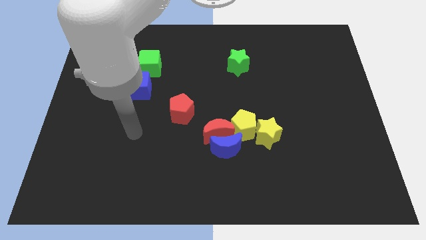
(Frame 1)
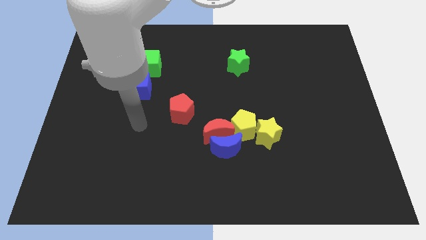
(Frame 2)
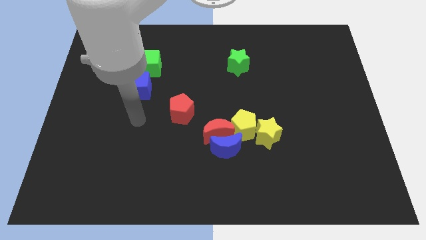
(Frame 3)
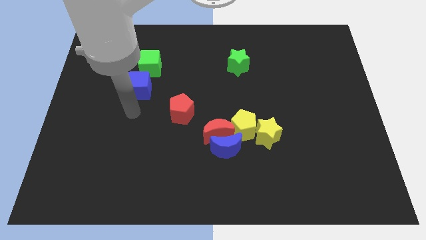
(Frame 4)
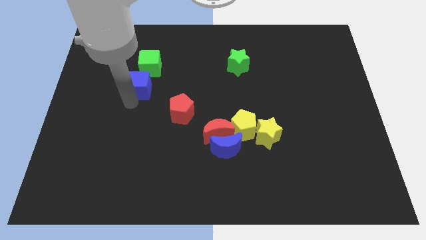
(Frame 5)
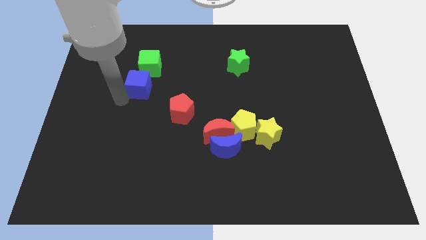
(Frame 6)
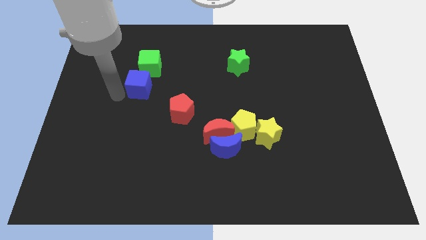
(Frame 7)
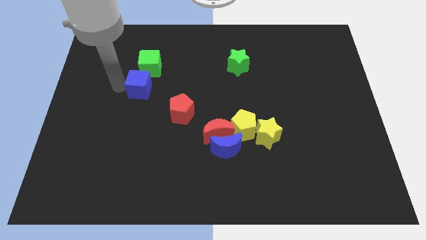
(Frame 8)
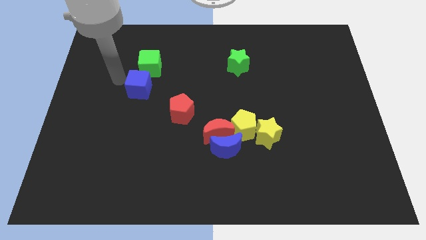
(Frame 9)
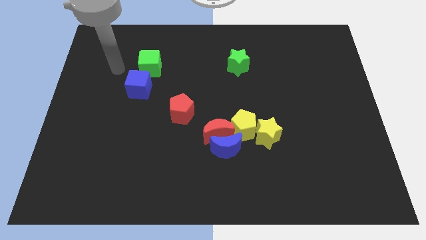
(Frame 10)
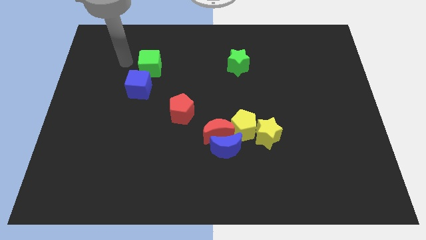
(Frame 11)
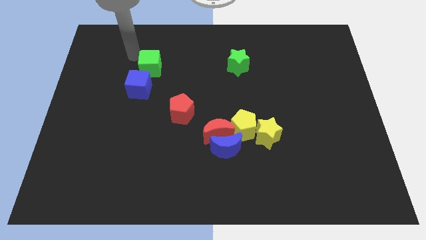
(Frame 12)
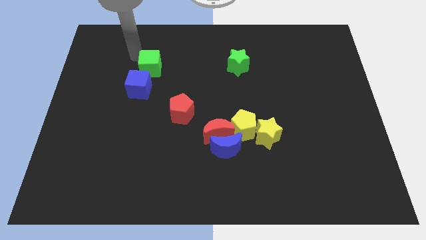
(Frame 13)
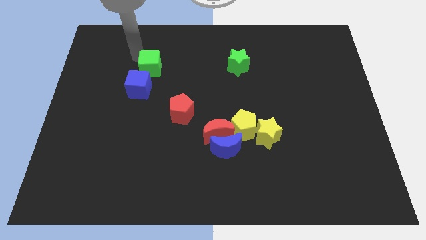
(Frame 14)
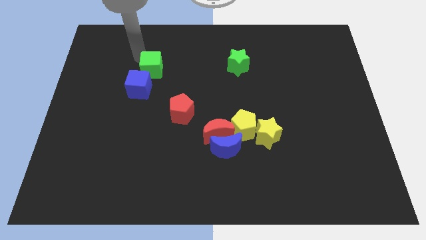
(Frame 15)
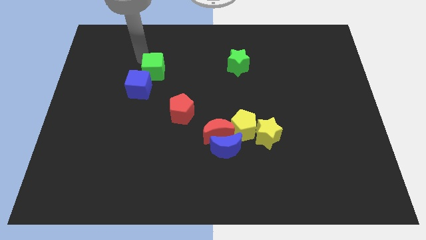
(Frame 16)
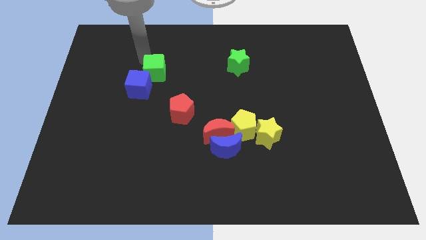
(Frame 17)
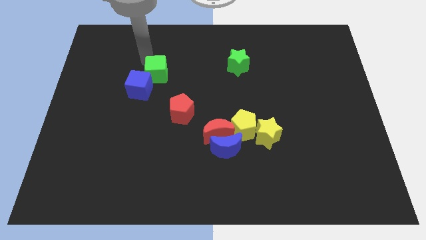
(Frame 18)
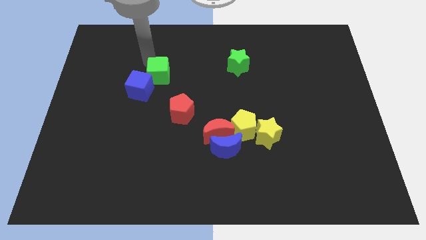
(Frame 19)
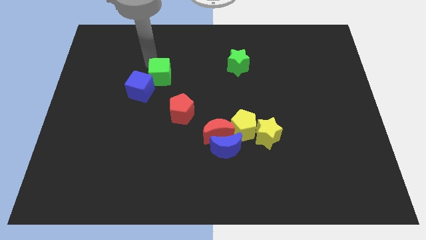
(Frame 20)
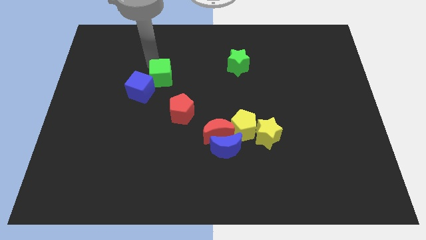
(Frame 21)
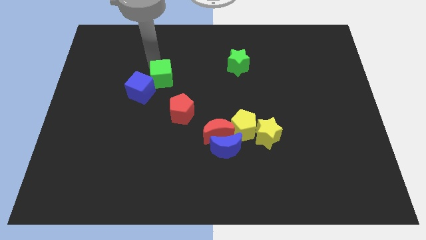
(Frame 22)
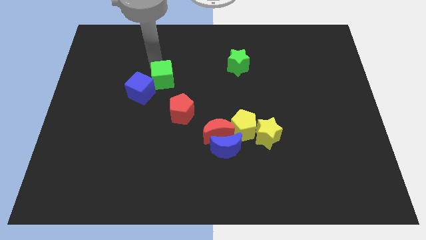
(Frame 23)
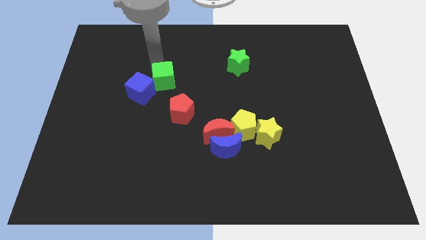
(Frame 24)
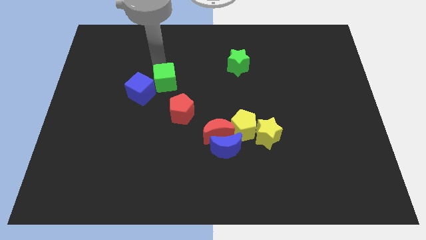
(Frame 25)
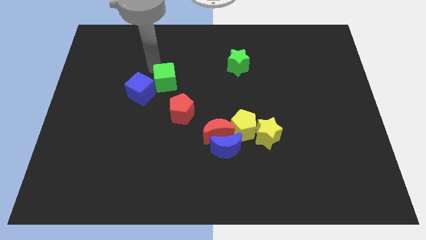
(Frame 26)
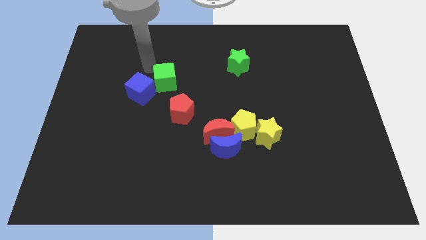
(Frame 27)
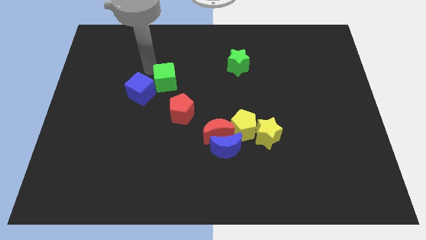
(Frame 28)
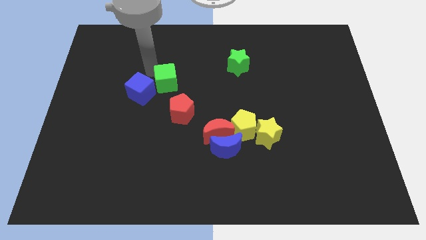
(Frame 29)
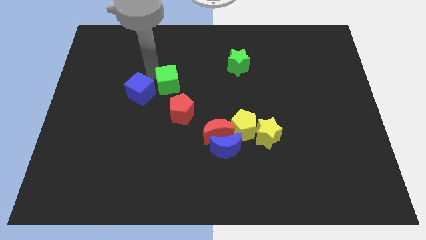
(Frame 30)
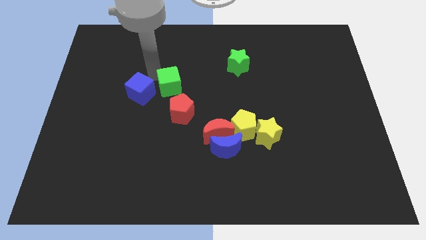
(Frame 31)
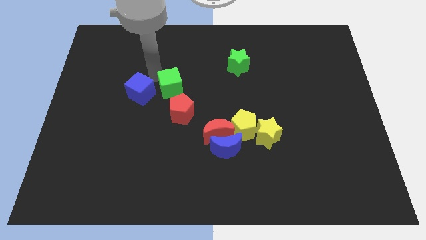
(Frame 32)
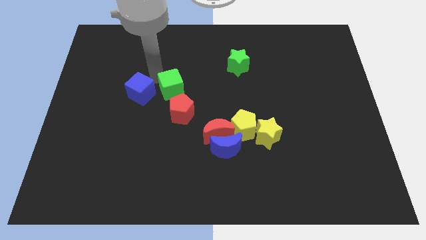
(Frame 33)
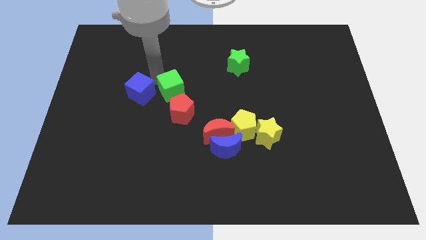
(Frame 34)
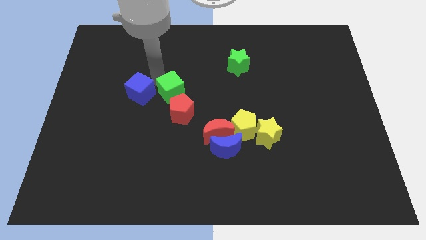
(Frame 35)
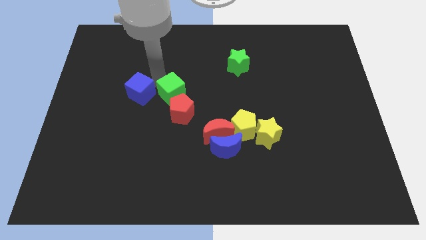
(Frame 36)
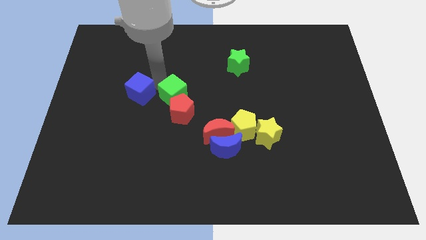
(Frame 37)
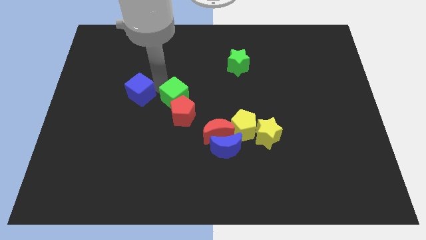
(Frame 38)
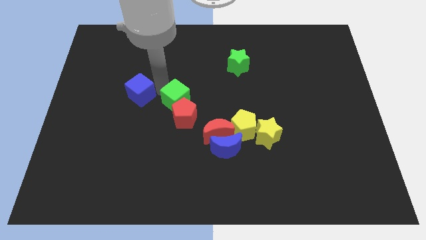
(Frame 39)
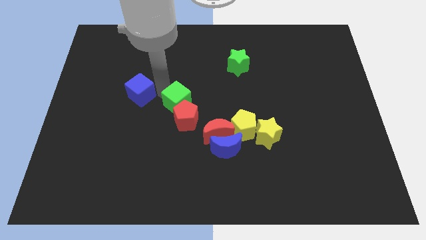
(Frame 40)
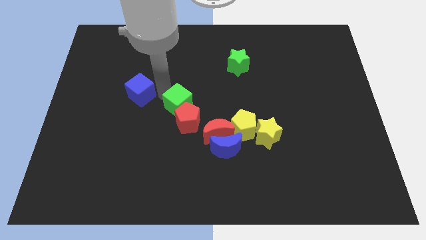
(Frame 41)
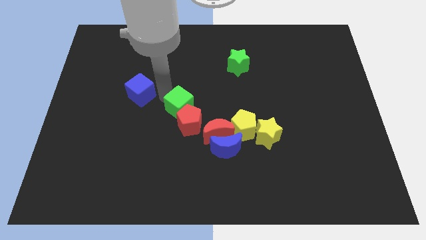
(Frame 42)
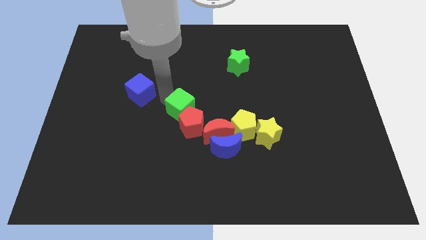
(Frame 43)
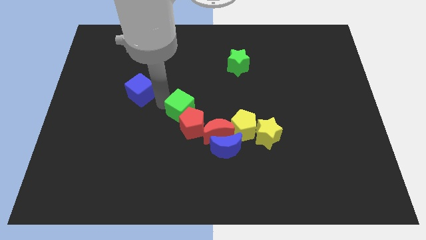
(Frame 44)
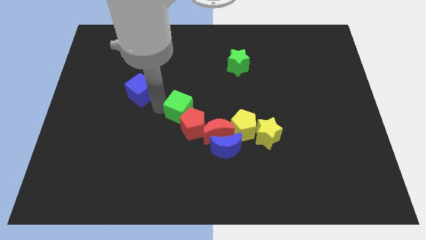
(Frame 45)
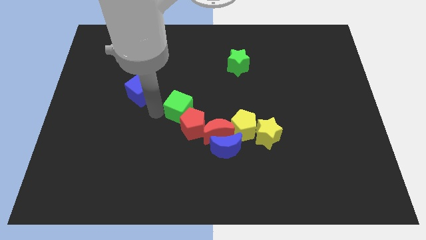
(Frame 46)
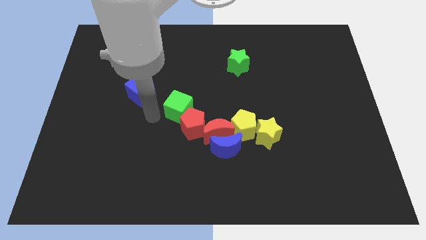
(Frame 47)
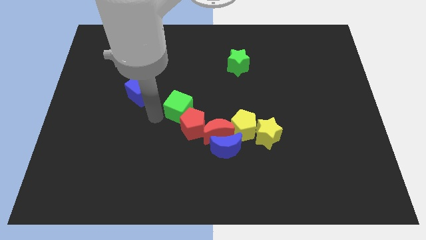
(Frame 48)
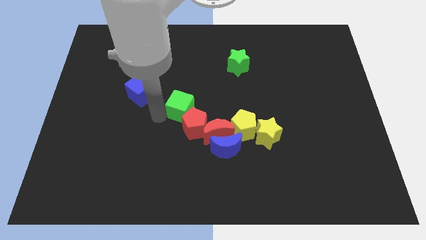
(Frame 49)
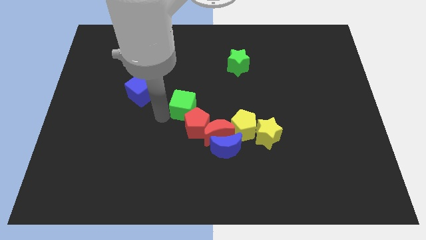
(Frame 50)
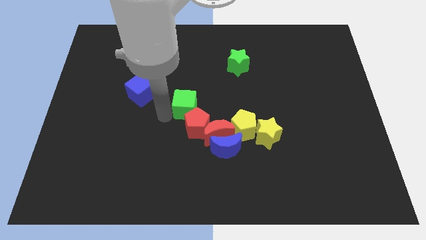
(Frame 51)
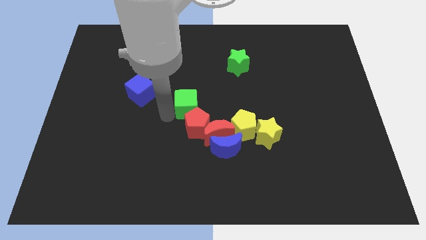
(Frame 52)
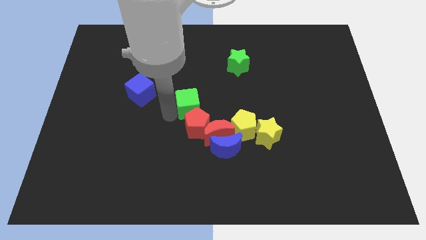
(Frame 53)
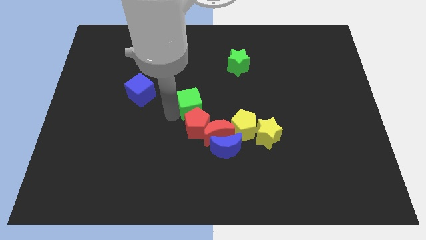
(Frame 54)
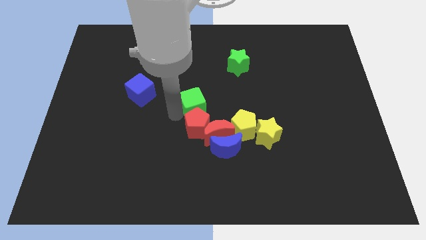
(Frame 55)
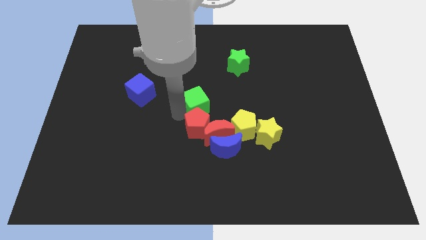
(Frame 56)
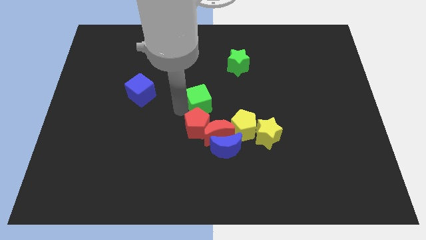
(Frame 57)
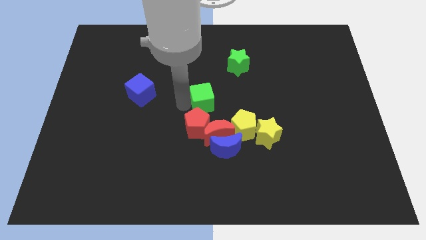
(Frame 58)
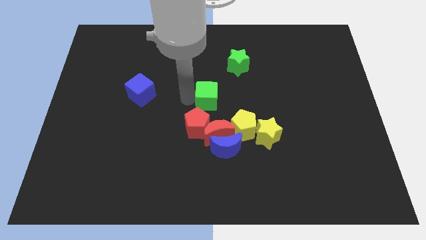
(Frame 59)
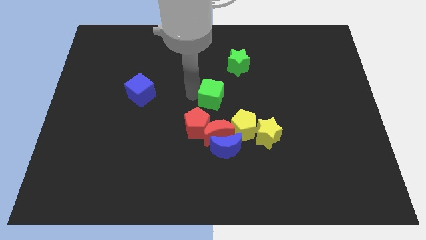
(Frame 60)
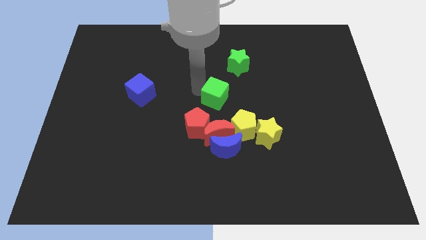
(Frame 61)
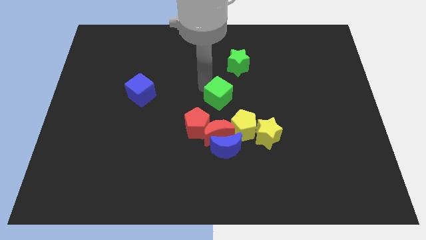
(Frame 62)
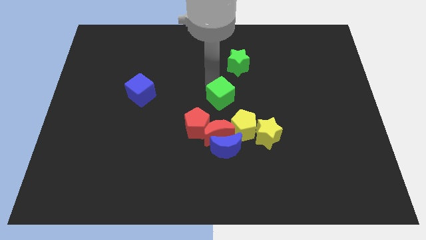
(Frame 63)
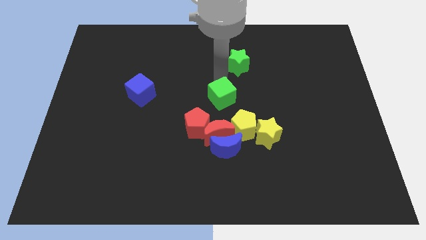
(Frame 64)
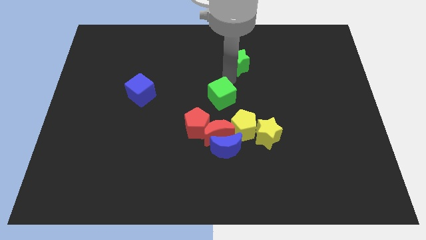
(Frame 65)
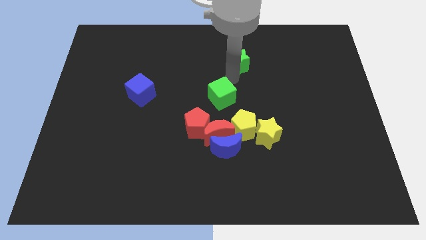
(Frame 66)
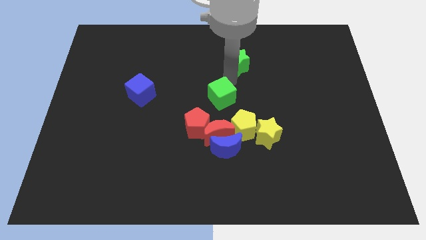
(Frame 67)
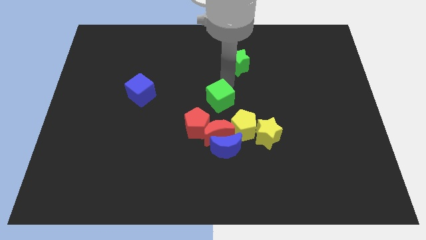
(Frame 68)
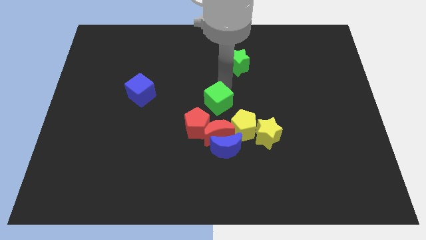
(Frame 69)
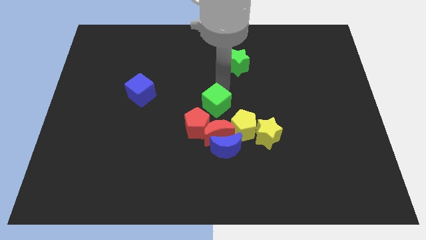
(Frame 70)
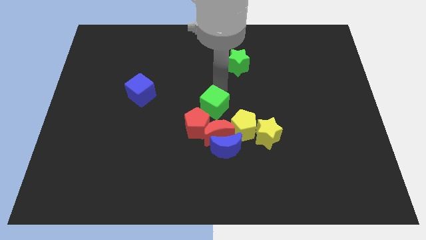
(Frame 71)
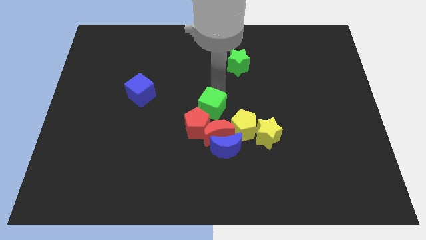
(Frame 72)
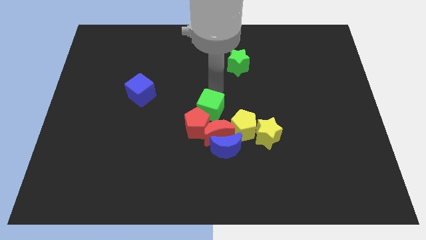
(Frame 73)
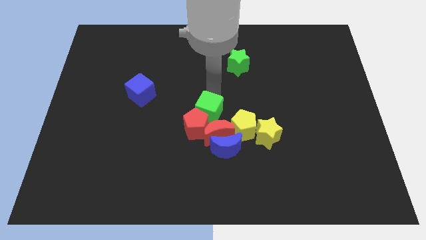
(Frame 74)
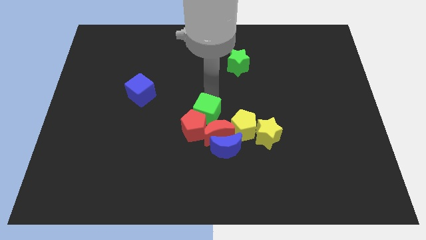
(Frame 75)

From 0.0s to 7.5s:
slide the green cube to the top left of the blue moon

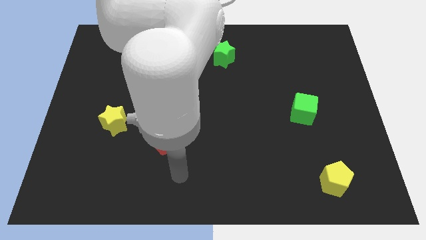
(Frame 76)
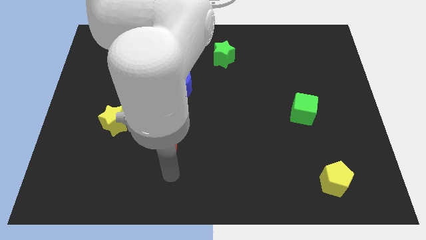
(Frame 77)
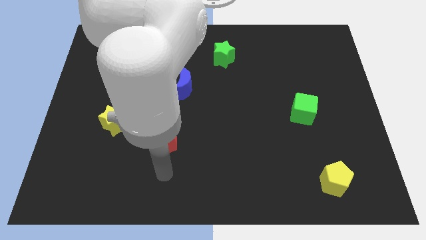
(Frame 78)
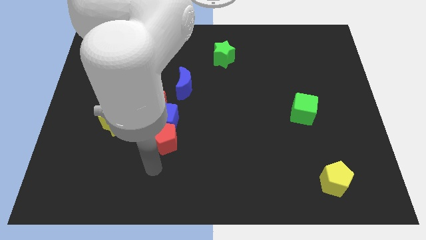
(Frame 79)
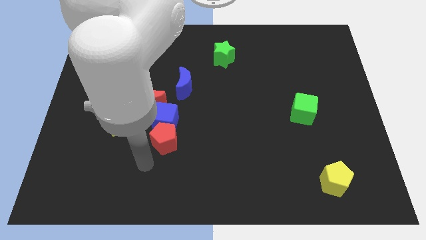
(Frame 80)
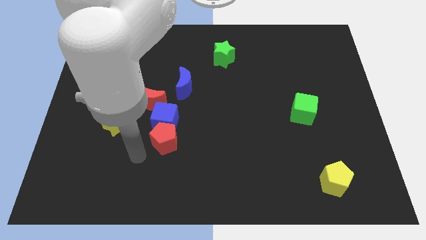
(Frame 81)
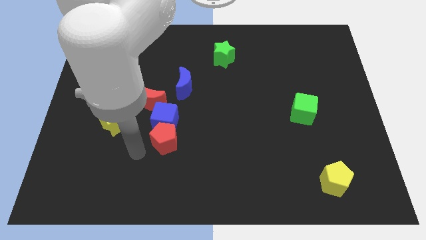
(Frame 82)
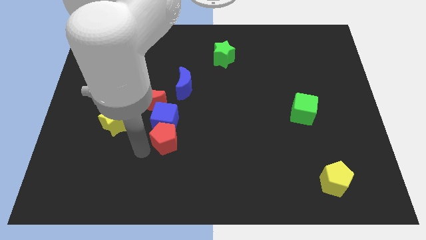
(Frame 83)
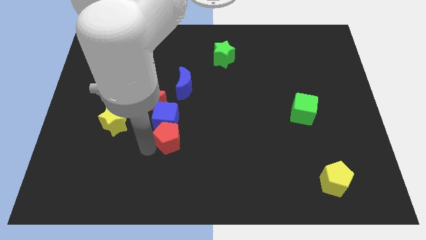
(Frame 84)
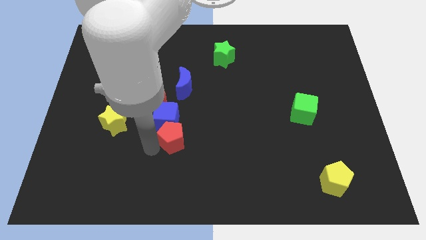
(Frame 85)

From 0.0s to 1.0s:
put the red pentagon to the bottom of the blue moon
